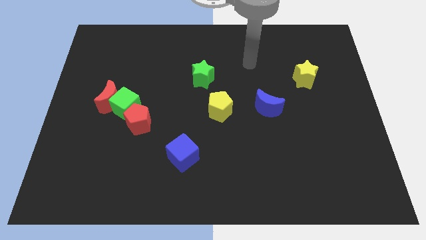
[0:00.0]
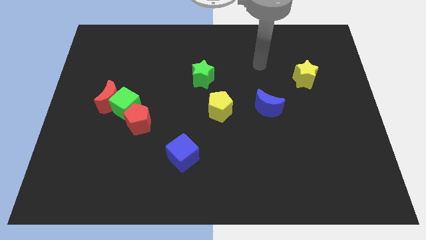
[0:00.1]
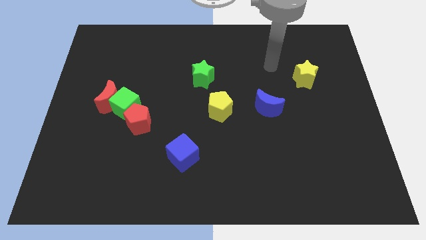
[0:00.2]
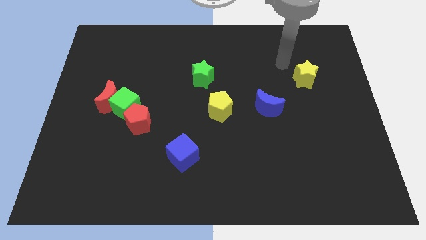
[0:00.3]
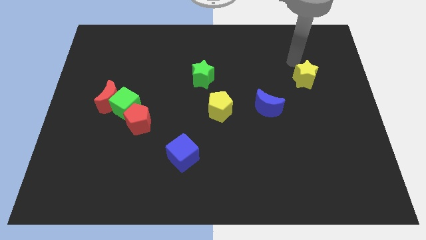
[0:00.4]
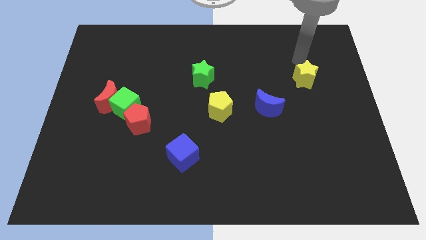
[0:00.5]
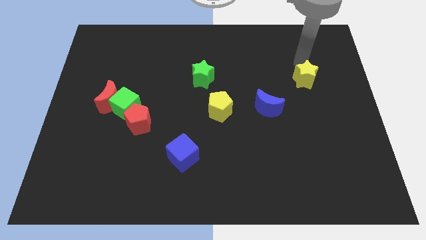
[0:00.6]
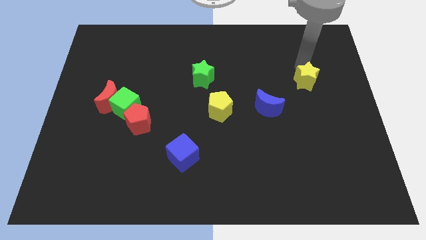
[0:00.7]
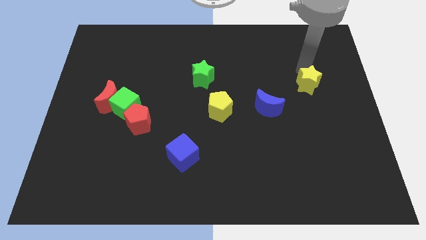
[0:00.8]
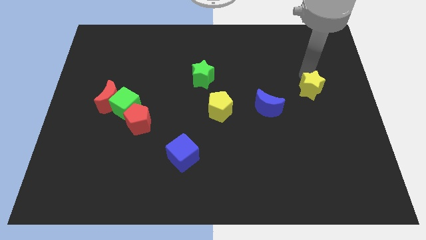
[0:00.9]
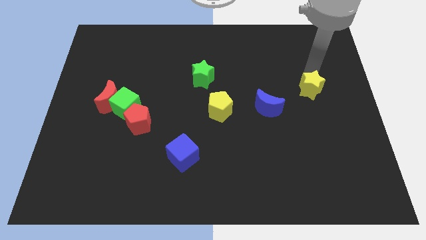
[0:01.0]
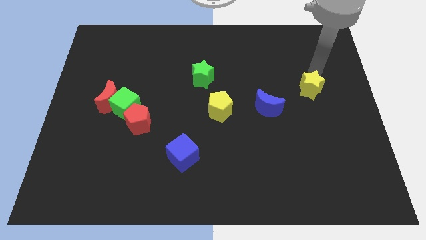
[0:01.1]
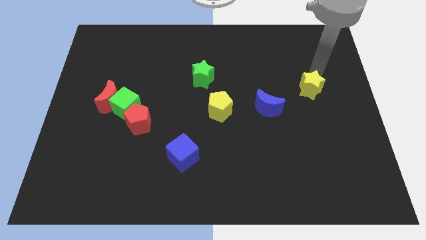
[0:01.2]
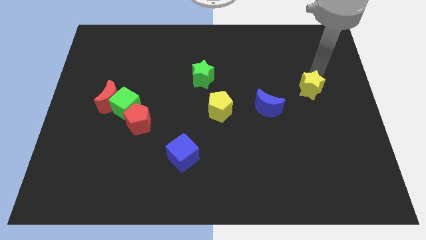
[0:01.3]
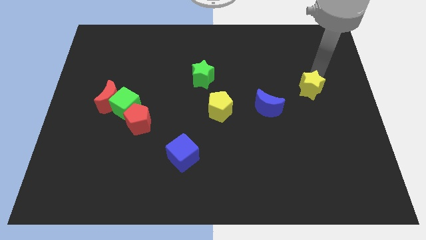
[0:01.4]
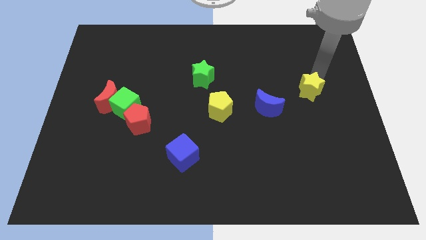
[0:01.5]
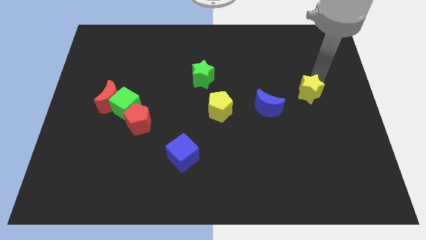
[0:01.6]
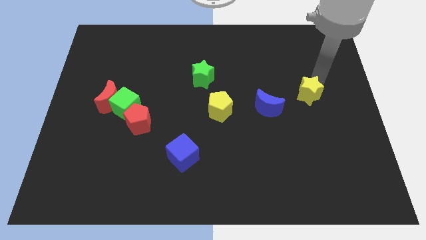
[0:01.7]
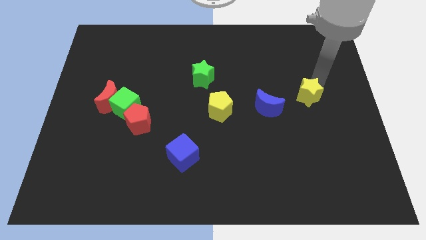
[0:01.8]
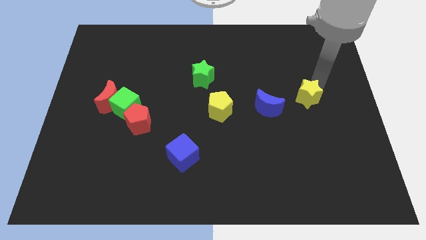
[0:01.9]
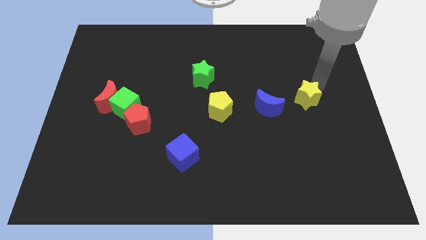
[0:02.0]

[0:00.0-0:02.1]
push the yellow star somewhat down

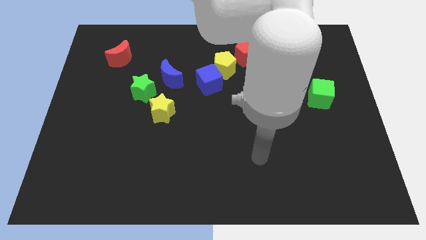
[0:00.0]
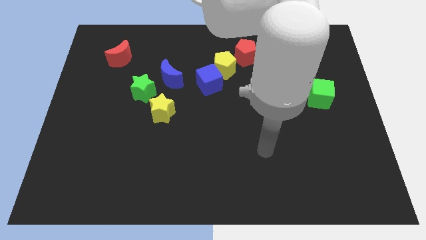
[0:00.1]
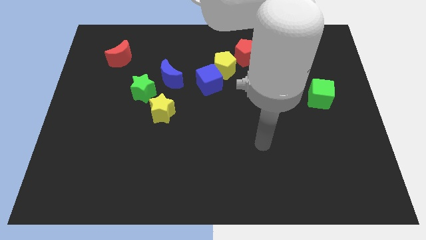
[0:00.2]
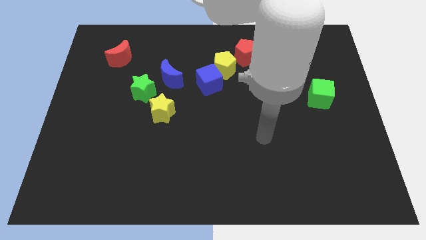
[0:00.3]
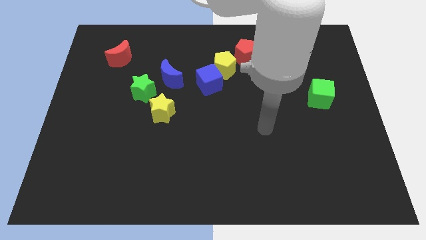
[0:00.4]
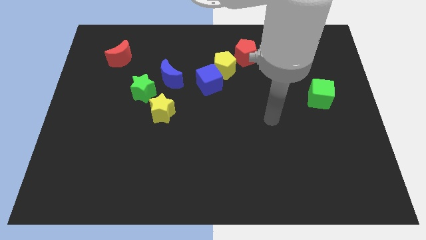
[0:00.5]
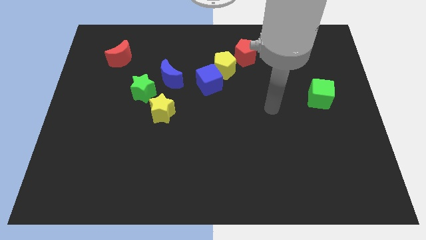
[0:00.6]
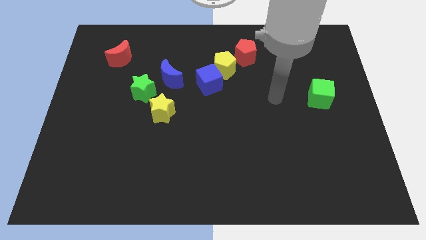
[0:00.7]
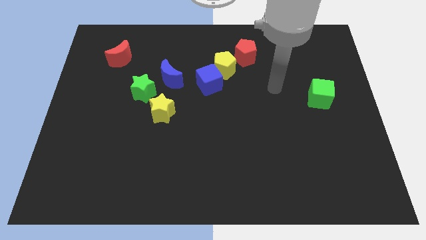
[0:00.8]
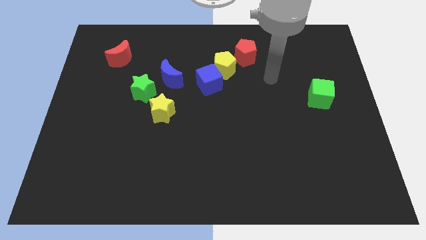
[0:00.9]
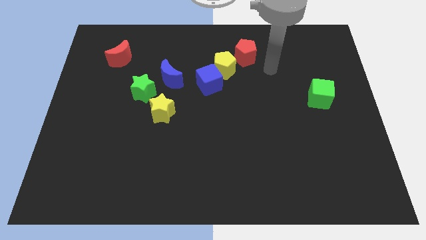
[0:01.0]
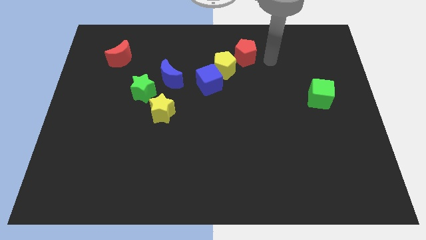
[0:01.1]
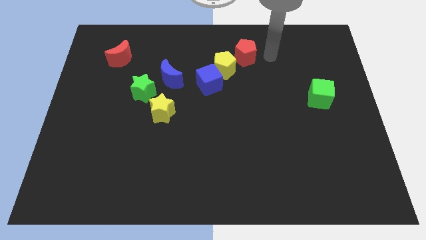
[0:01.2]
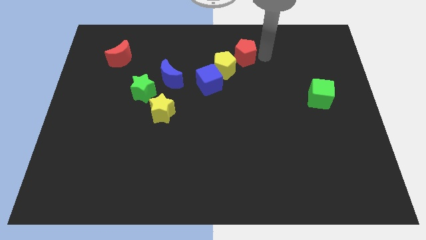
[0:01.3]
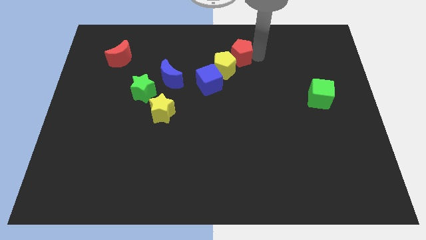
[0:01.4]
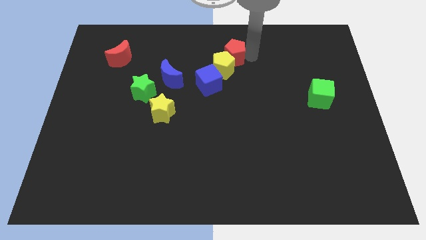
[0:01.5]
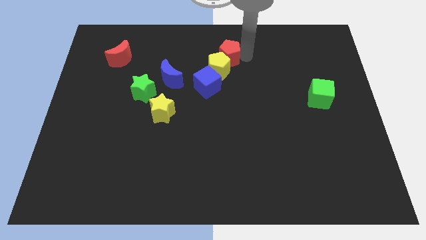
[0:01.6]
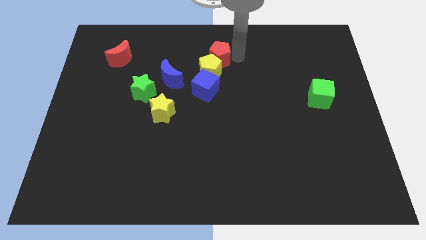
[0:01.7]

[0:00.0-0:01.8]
slightly slide the red pentagon to the left

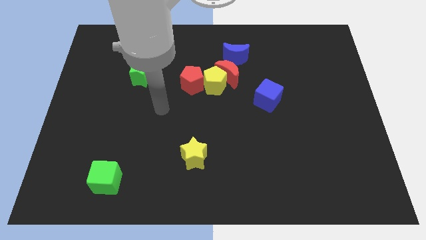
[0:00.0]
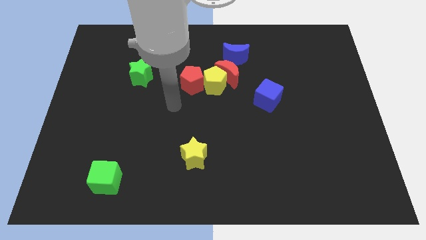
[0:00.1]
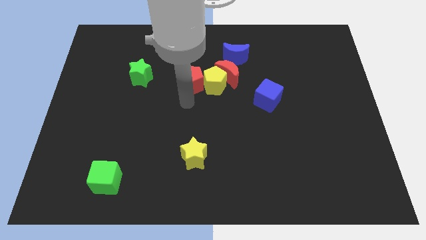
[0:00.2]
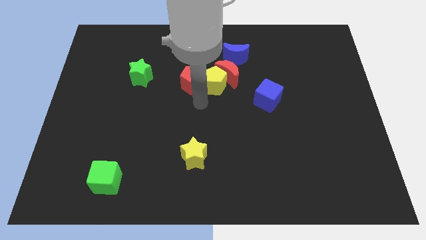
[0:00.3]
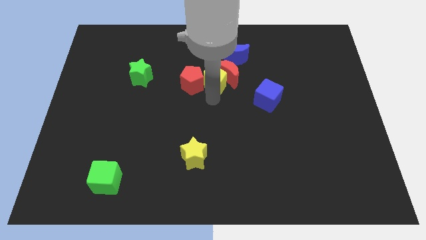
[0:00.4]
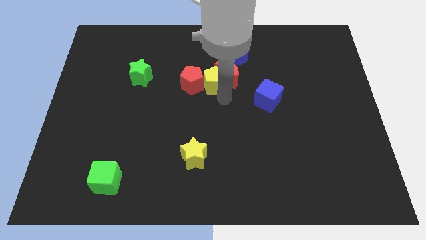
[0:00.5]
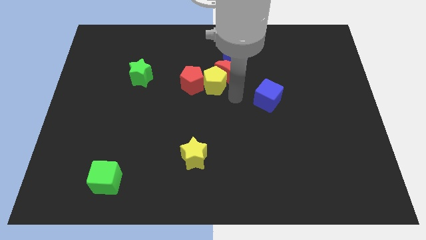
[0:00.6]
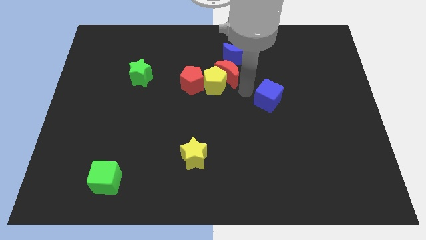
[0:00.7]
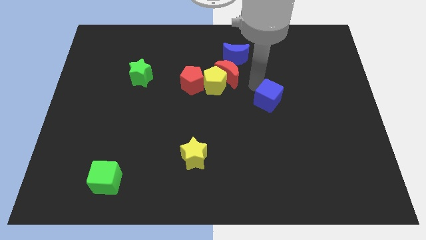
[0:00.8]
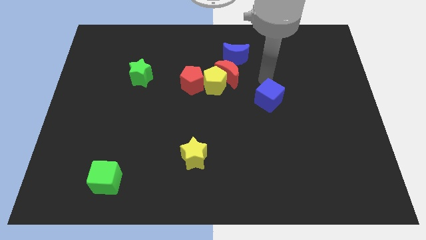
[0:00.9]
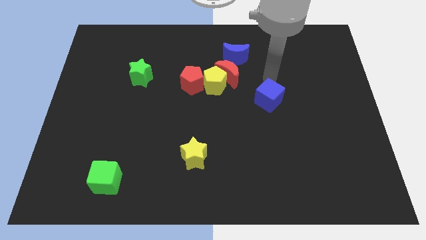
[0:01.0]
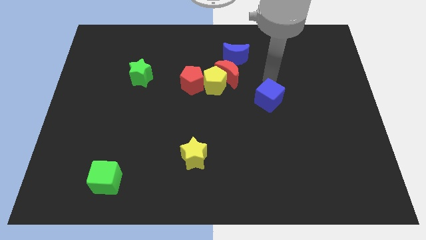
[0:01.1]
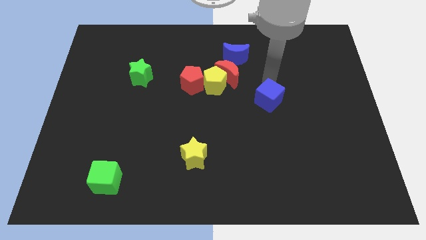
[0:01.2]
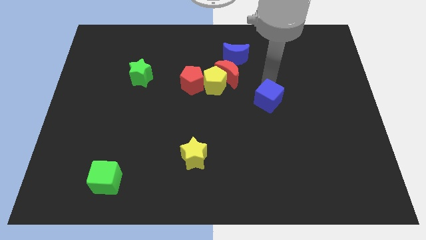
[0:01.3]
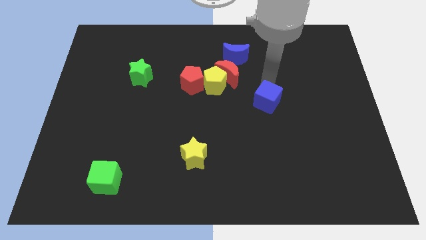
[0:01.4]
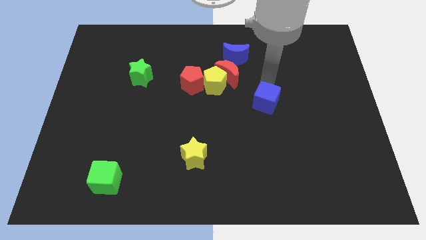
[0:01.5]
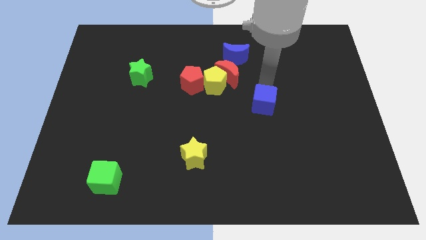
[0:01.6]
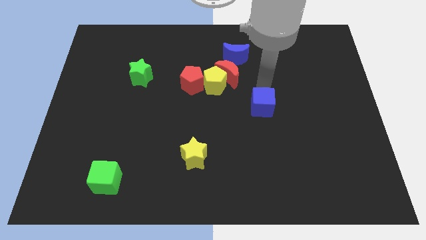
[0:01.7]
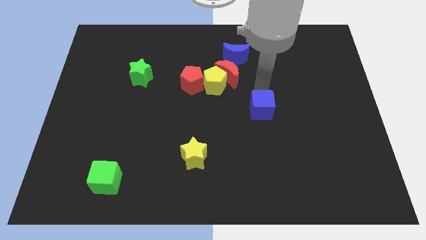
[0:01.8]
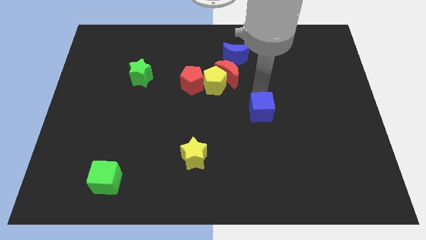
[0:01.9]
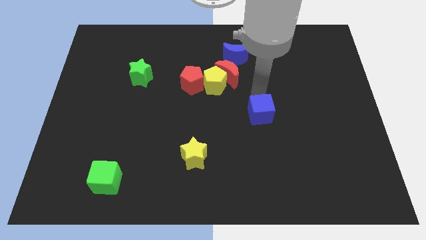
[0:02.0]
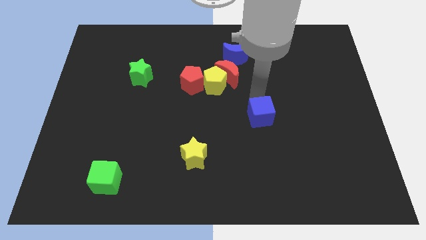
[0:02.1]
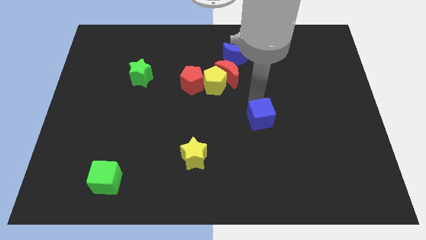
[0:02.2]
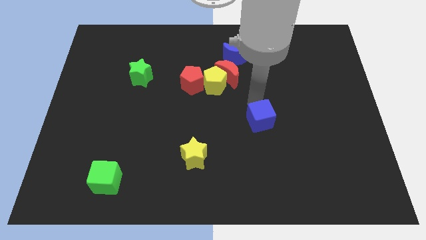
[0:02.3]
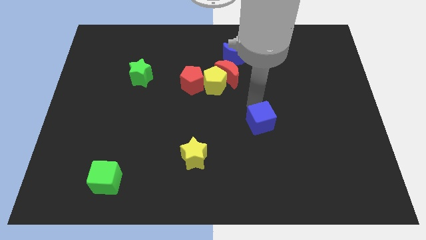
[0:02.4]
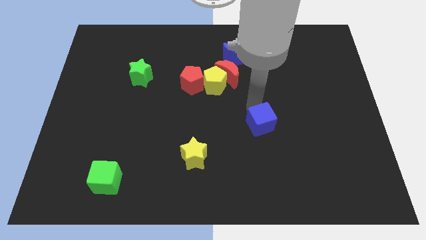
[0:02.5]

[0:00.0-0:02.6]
slightly push the blue cube downwards

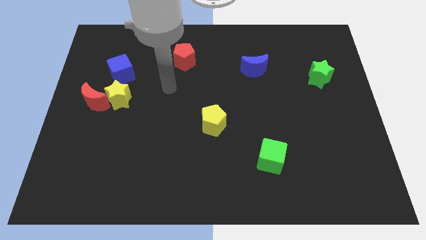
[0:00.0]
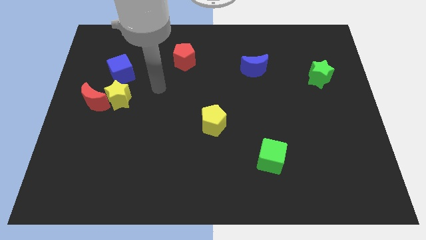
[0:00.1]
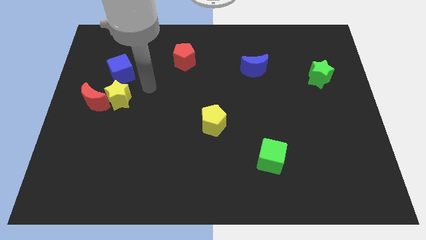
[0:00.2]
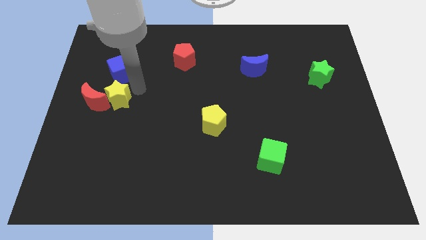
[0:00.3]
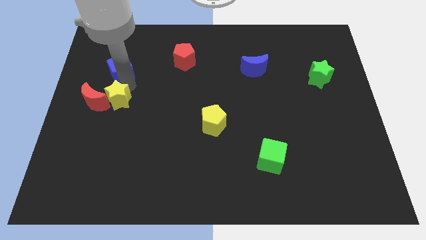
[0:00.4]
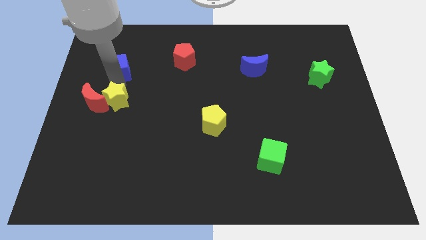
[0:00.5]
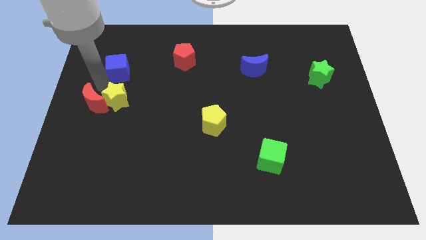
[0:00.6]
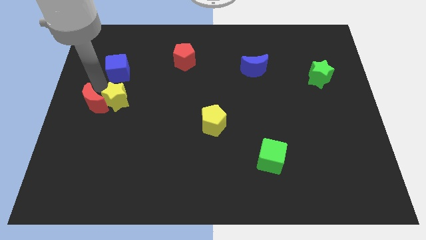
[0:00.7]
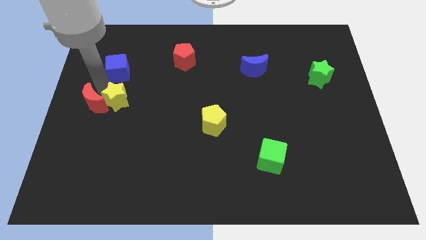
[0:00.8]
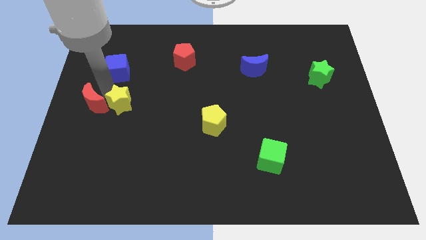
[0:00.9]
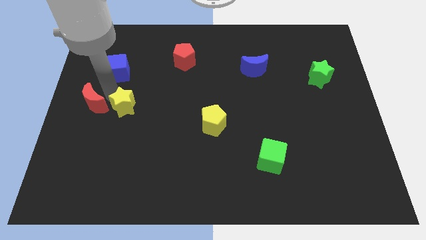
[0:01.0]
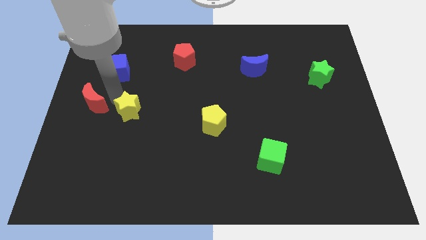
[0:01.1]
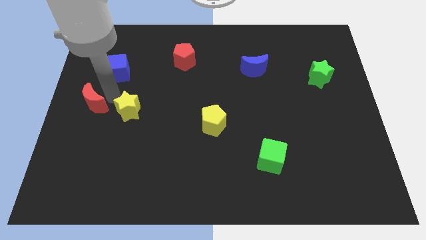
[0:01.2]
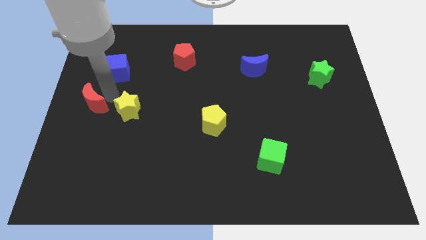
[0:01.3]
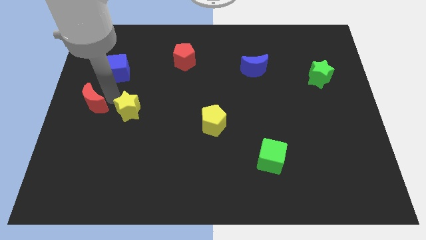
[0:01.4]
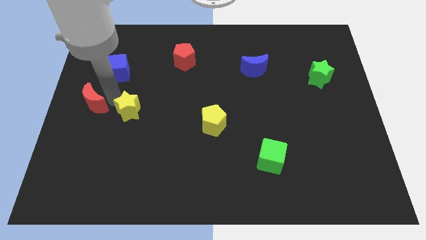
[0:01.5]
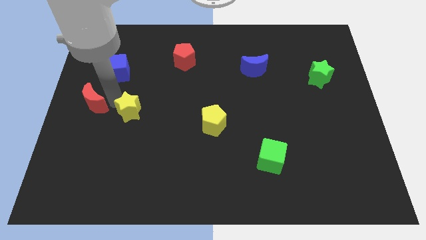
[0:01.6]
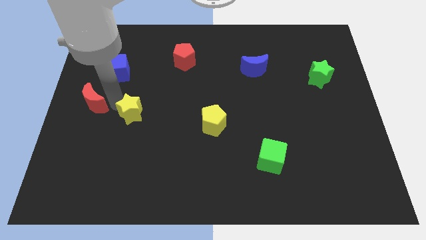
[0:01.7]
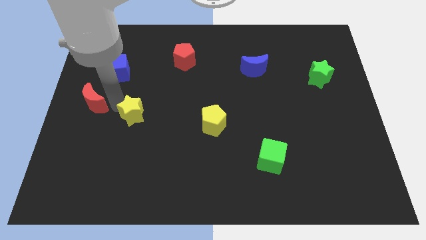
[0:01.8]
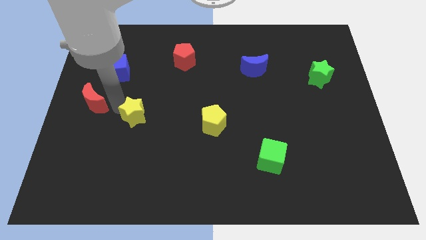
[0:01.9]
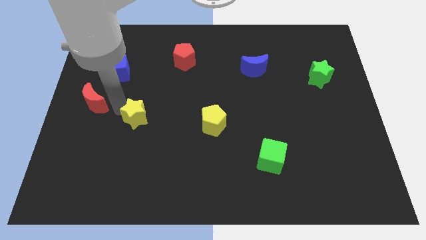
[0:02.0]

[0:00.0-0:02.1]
move the yellow star a little downwards and to the right
